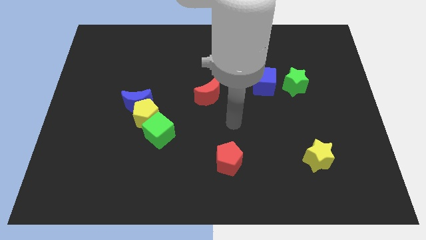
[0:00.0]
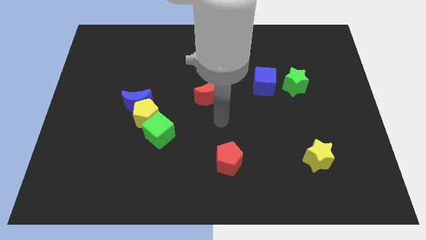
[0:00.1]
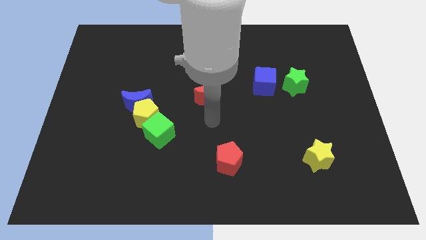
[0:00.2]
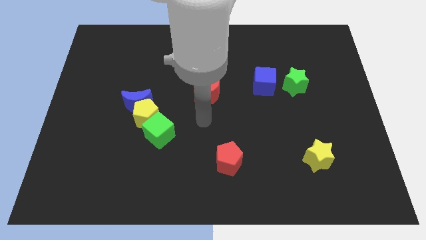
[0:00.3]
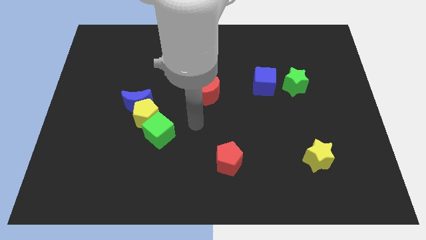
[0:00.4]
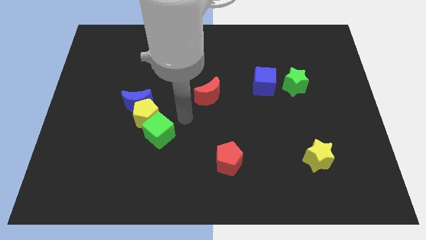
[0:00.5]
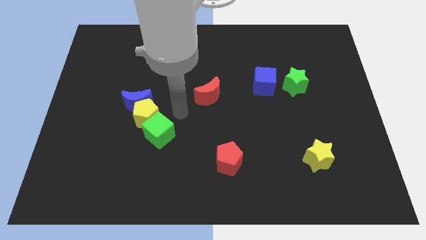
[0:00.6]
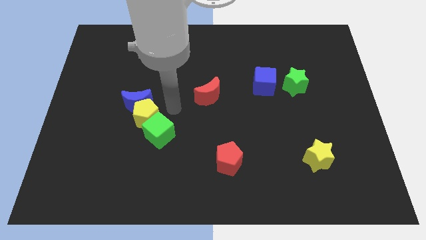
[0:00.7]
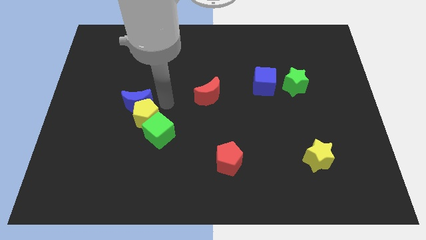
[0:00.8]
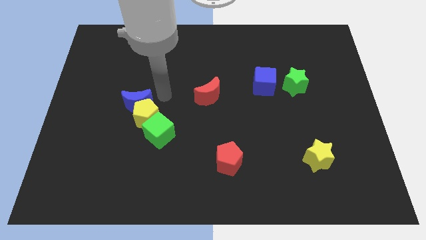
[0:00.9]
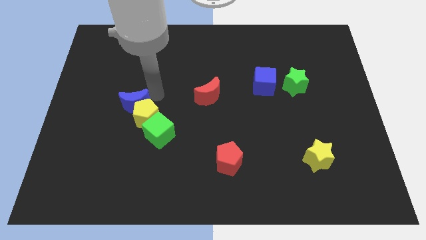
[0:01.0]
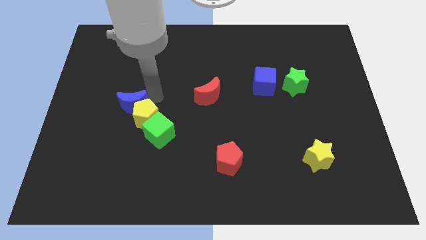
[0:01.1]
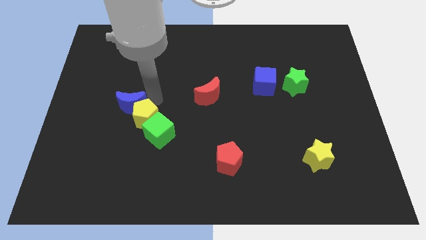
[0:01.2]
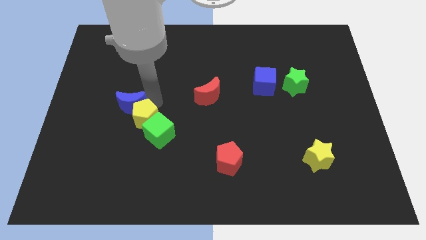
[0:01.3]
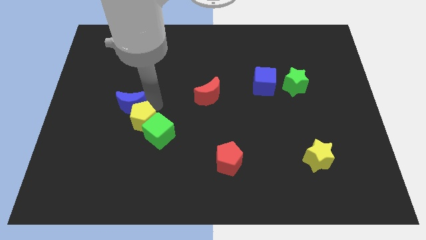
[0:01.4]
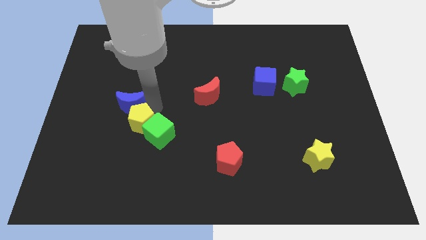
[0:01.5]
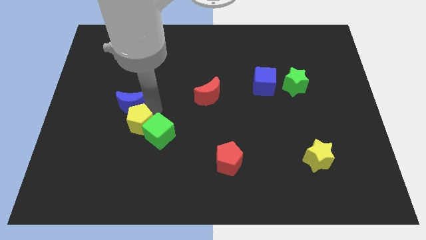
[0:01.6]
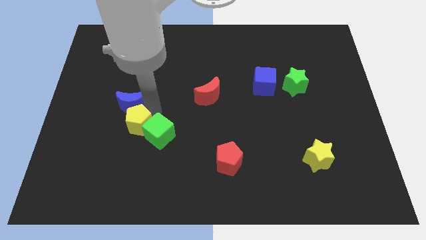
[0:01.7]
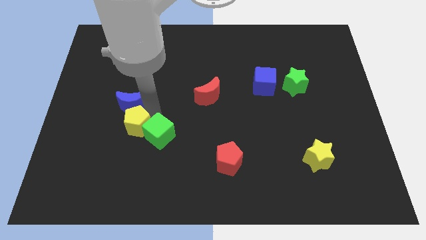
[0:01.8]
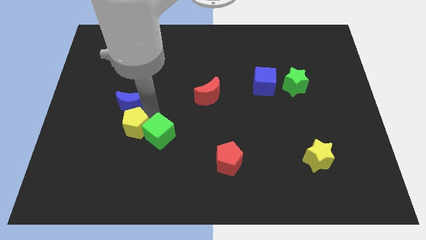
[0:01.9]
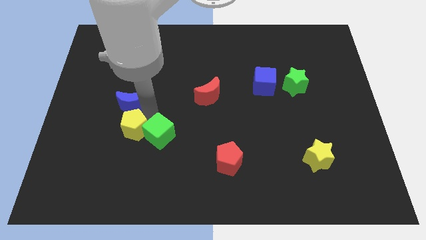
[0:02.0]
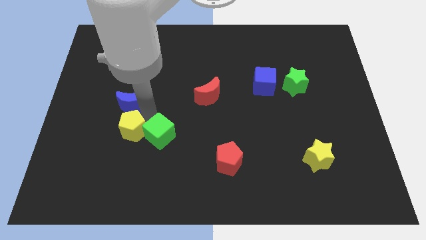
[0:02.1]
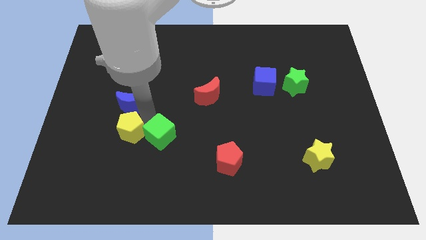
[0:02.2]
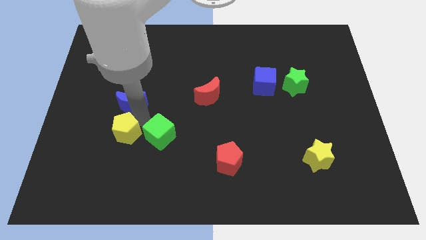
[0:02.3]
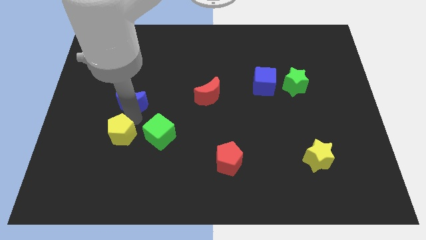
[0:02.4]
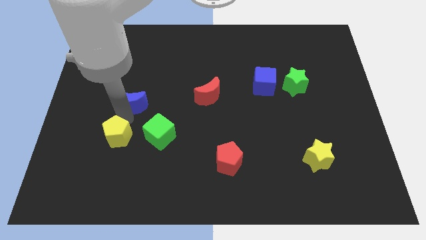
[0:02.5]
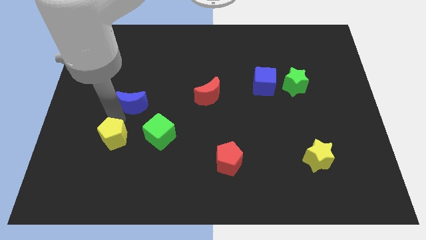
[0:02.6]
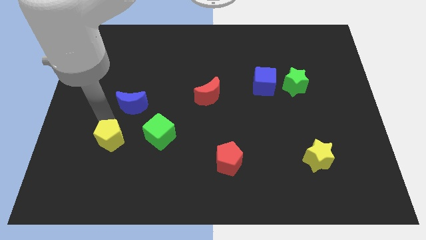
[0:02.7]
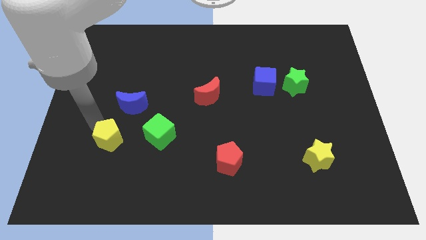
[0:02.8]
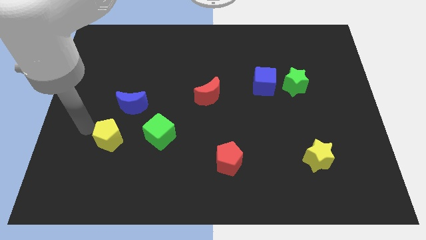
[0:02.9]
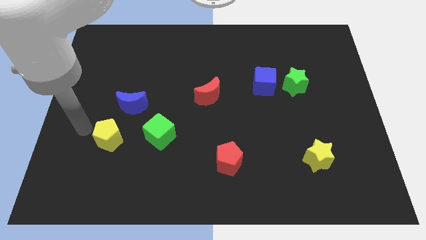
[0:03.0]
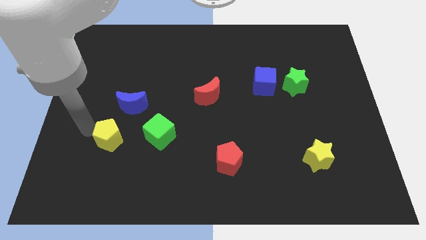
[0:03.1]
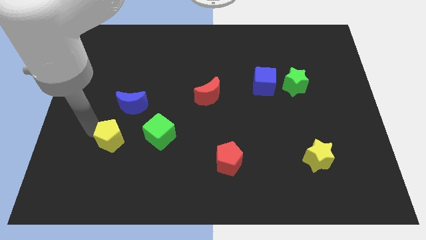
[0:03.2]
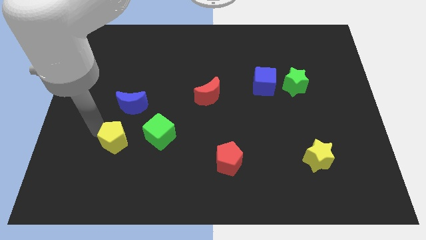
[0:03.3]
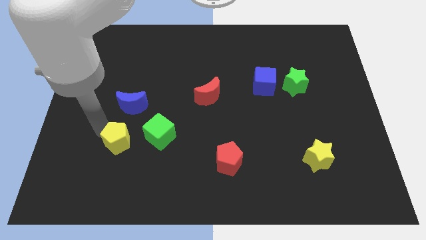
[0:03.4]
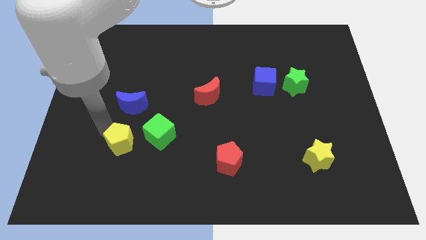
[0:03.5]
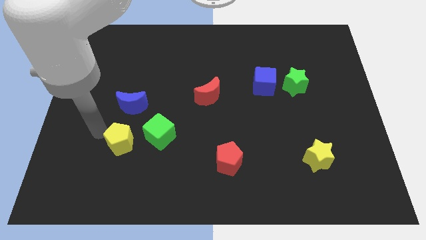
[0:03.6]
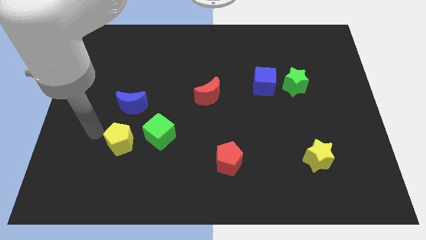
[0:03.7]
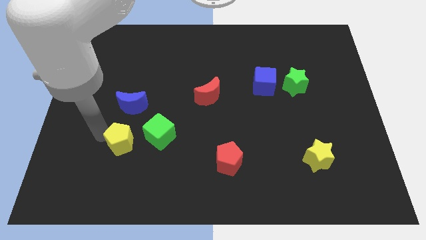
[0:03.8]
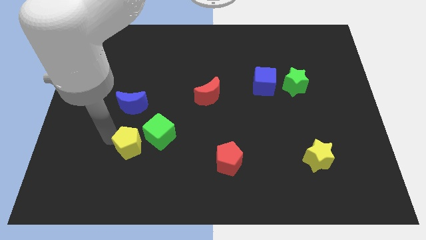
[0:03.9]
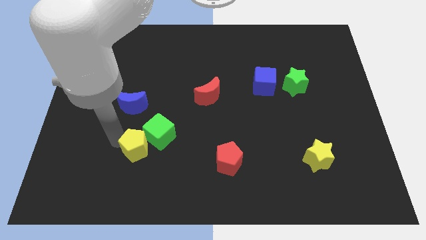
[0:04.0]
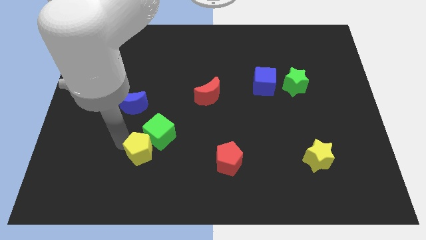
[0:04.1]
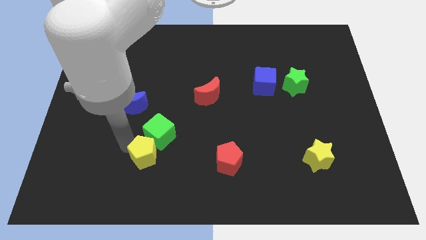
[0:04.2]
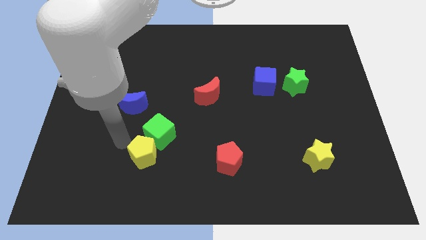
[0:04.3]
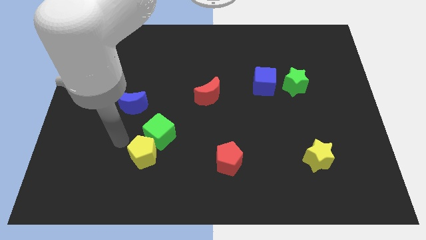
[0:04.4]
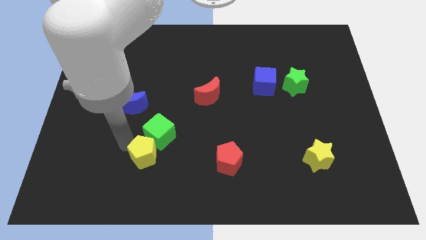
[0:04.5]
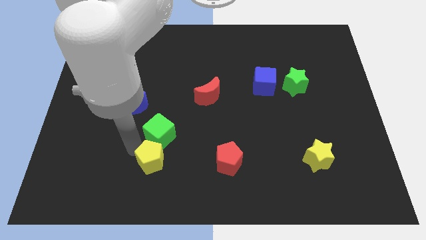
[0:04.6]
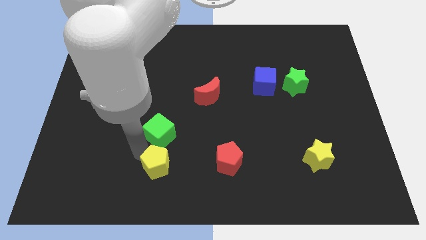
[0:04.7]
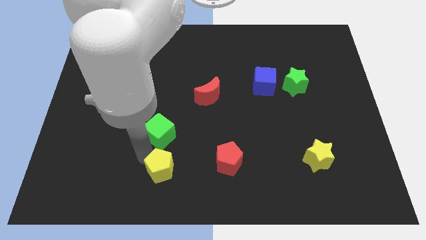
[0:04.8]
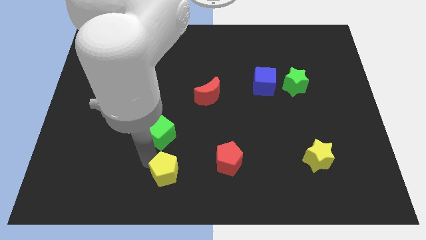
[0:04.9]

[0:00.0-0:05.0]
move the yellow pentagon to the bottom side
